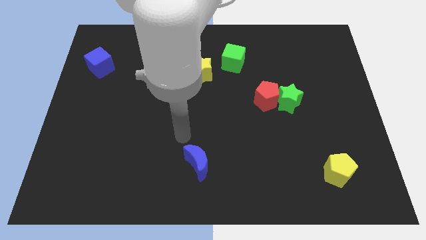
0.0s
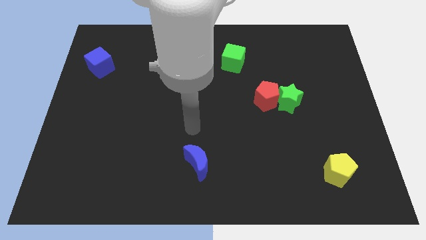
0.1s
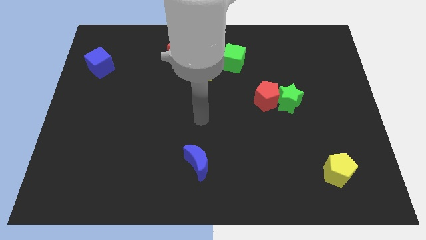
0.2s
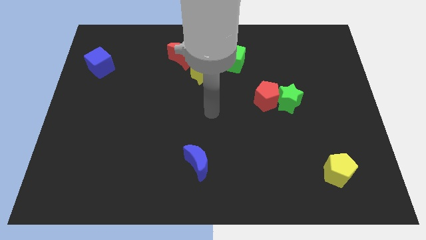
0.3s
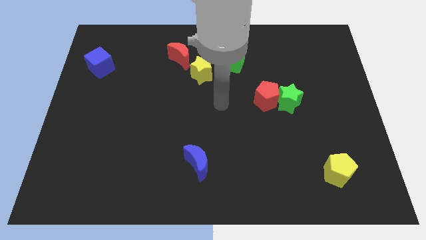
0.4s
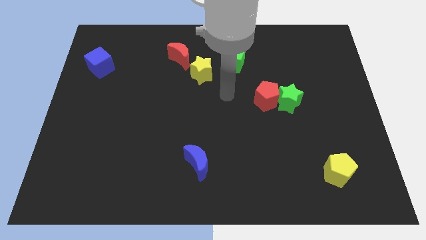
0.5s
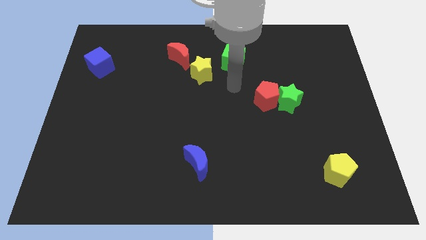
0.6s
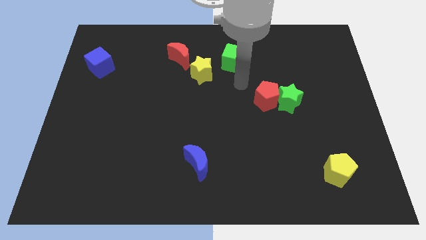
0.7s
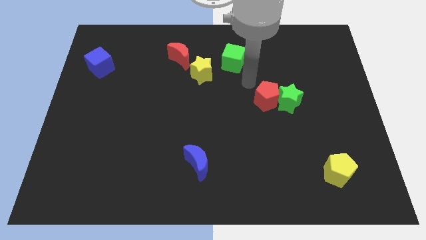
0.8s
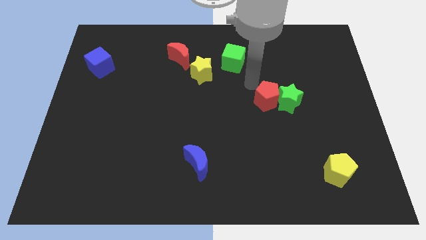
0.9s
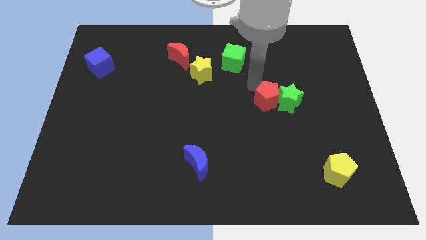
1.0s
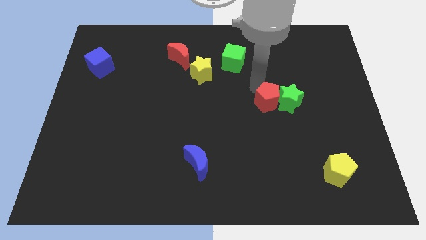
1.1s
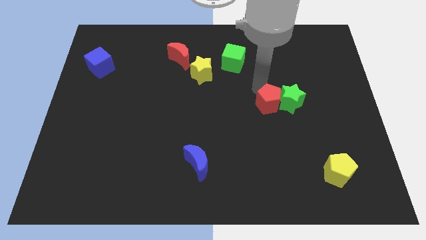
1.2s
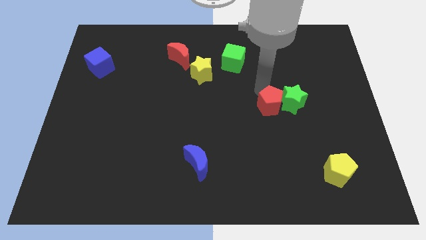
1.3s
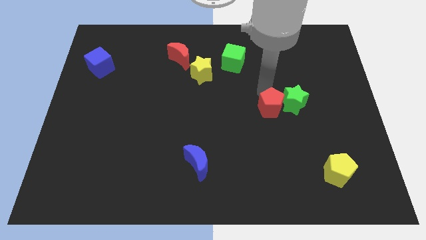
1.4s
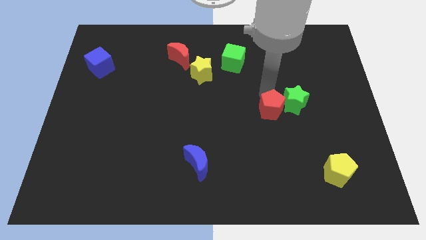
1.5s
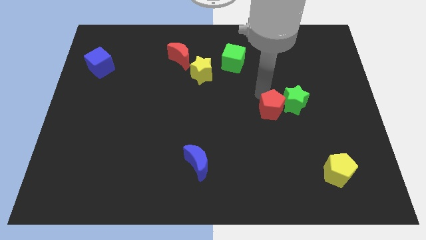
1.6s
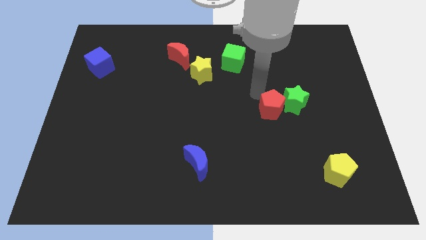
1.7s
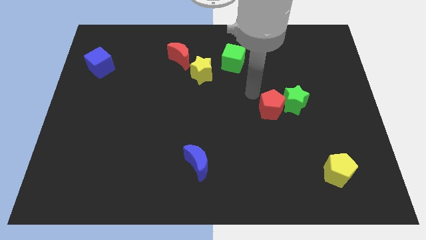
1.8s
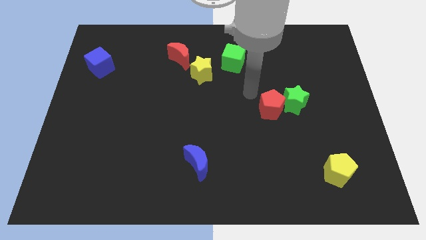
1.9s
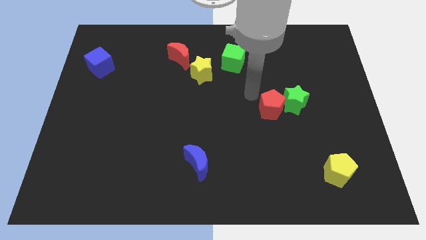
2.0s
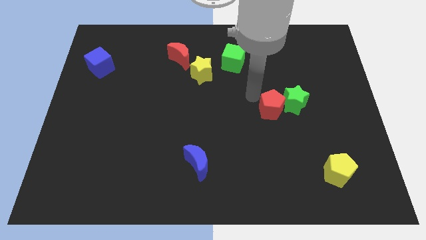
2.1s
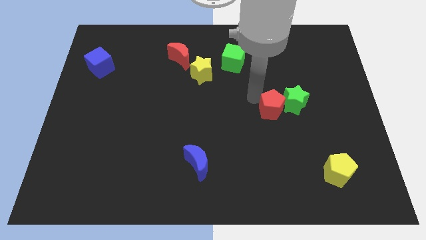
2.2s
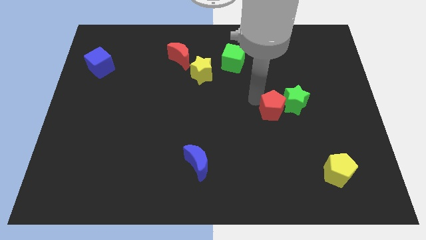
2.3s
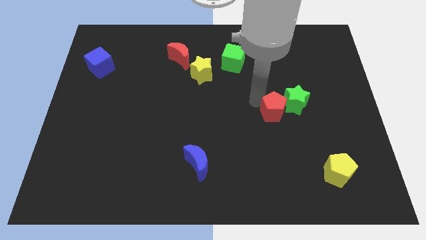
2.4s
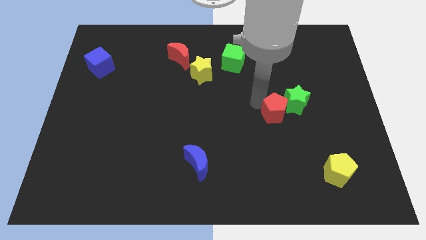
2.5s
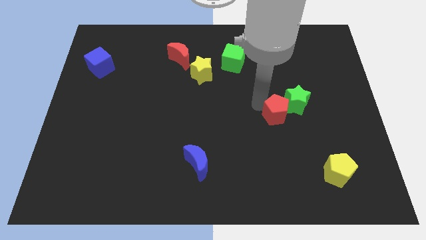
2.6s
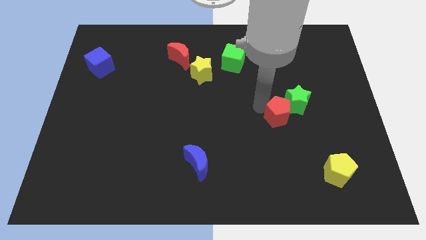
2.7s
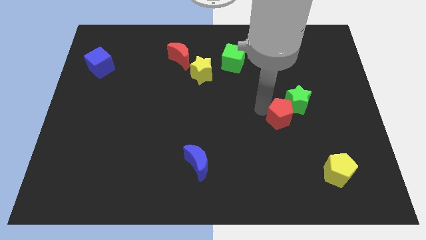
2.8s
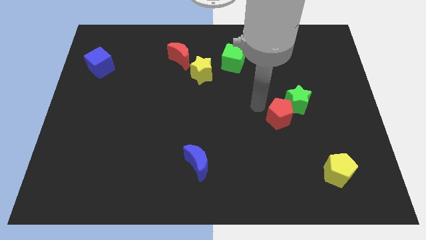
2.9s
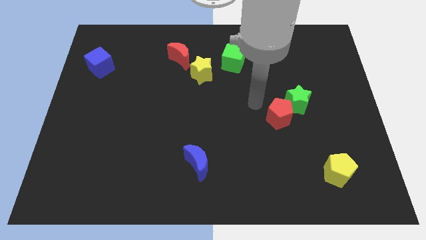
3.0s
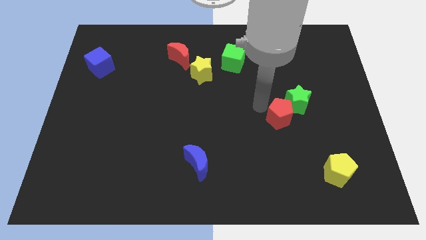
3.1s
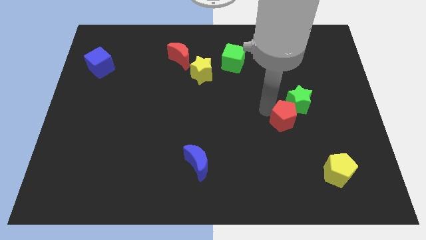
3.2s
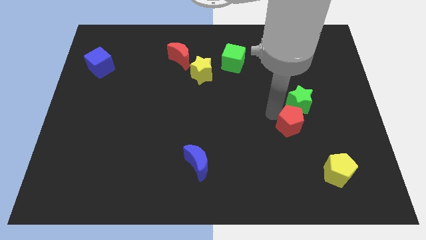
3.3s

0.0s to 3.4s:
slide the red pentagon somewhat downwards and to the right diagonally

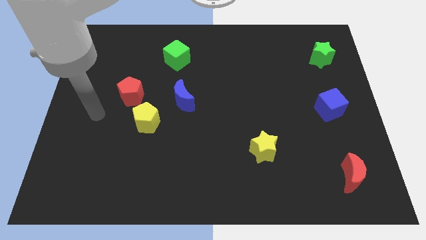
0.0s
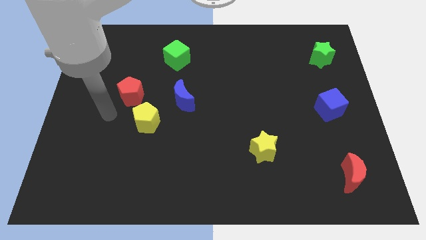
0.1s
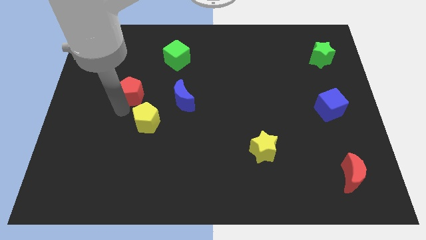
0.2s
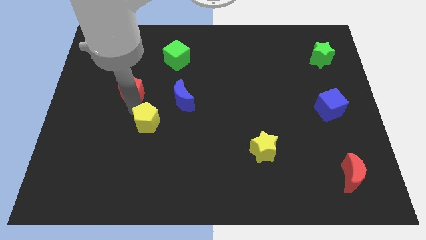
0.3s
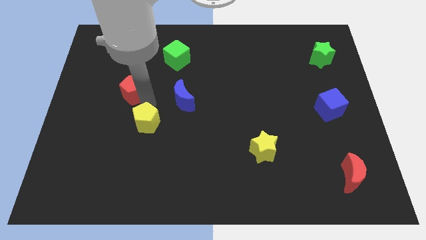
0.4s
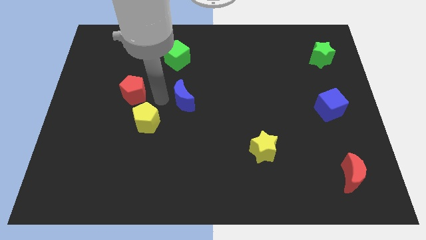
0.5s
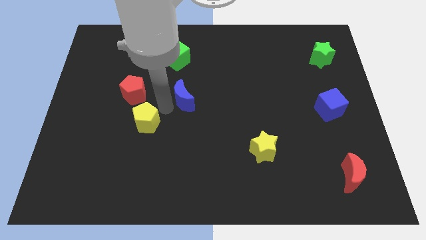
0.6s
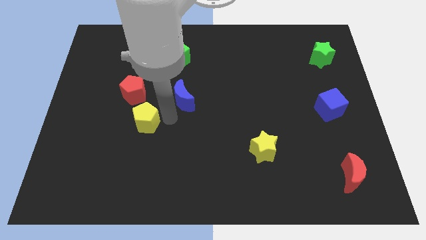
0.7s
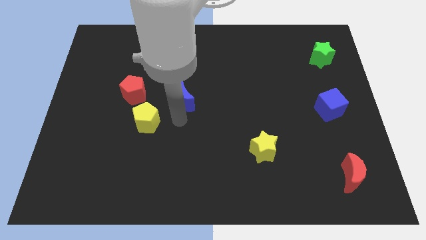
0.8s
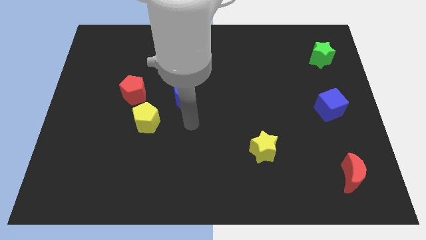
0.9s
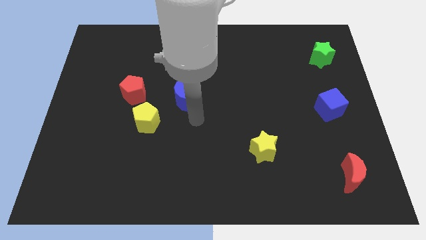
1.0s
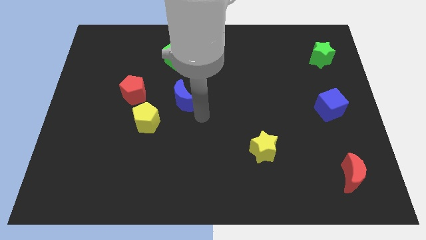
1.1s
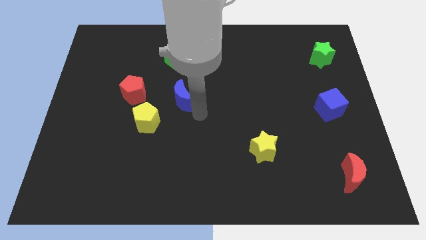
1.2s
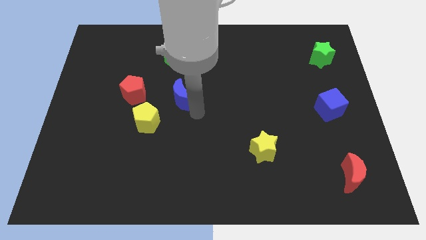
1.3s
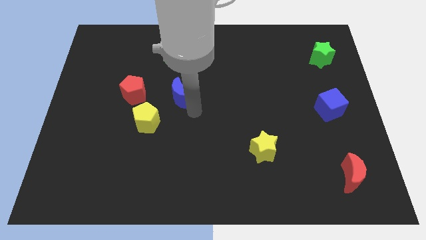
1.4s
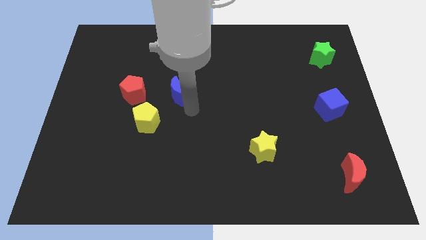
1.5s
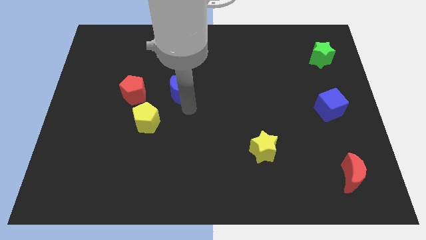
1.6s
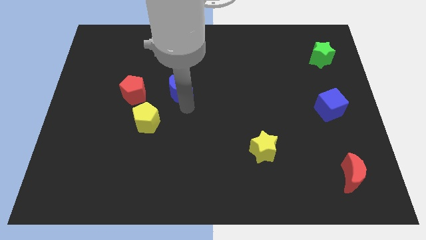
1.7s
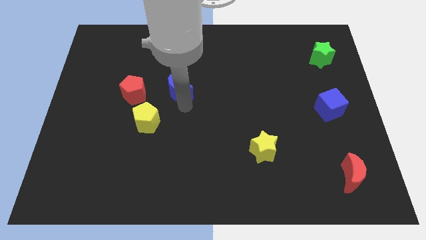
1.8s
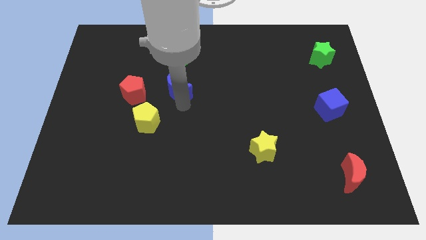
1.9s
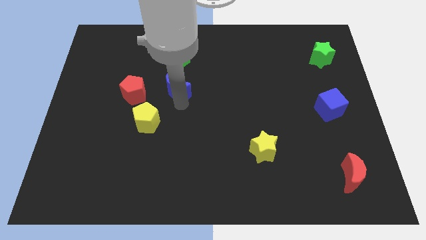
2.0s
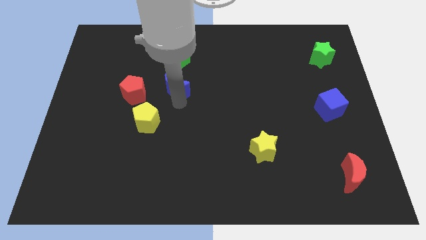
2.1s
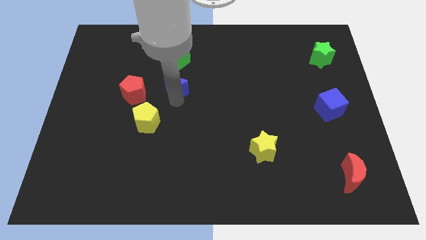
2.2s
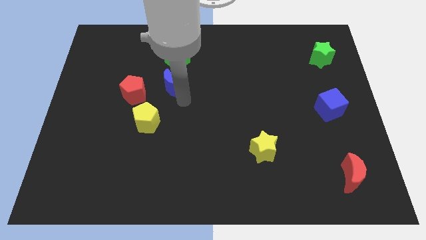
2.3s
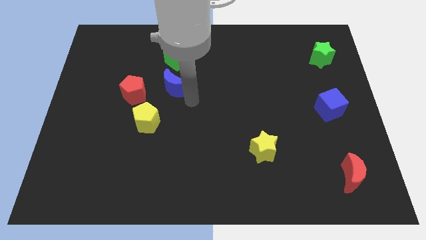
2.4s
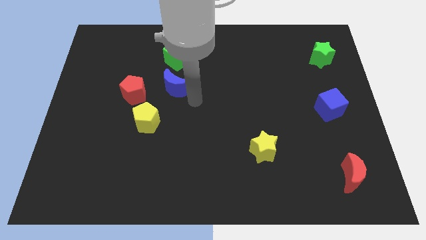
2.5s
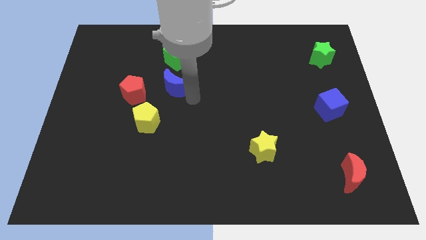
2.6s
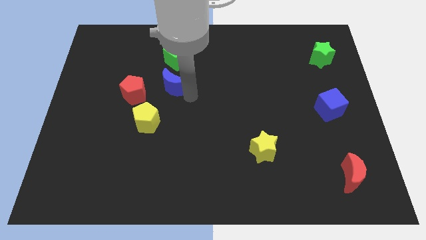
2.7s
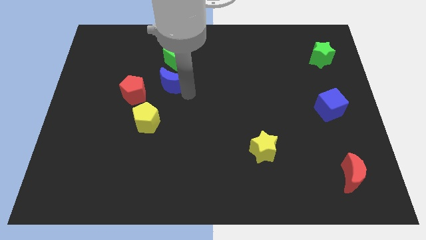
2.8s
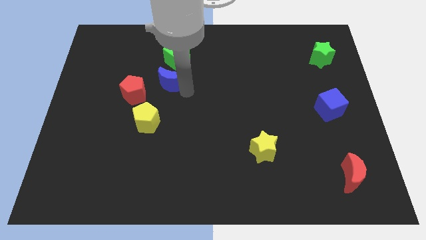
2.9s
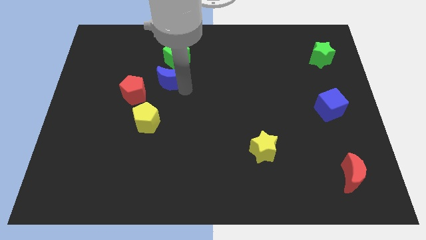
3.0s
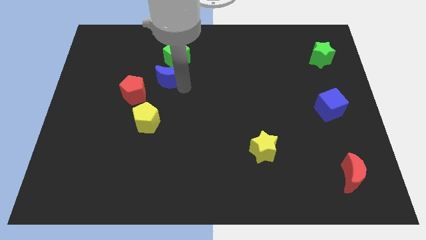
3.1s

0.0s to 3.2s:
move the blue moon slightly upwards and left

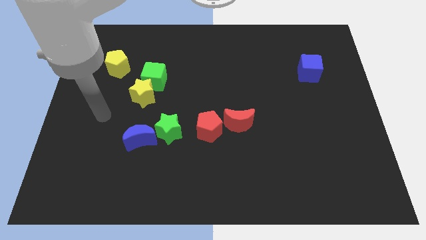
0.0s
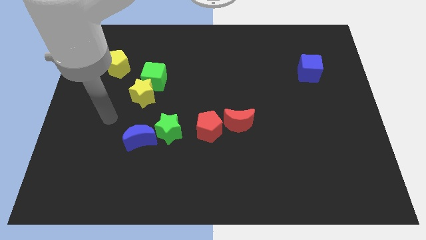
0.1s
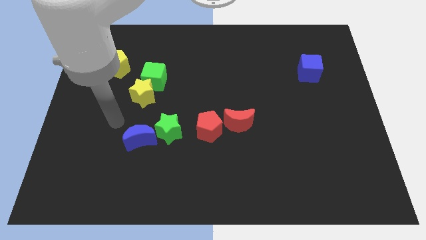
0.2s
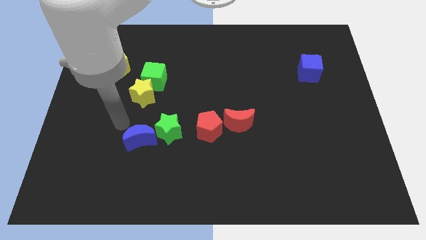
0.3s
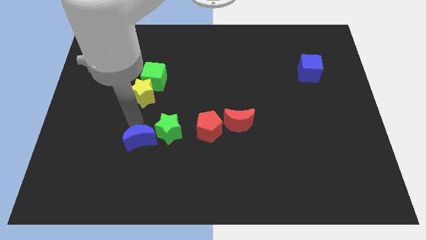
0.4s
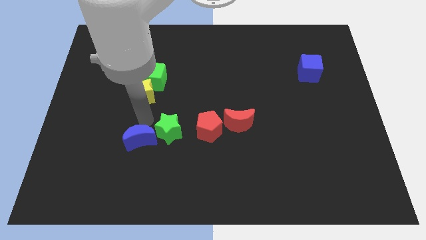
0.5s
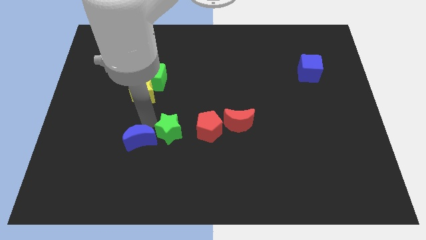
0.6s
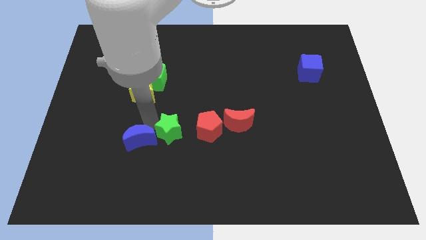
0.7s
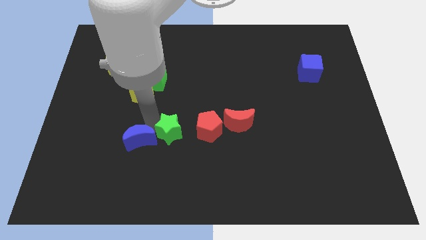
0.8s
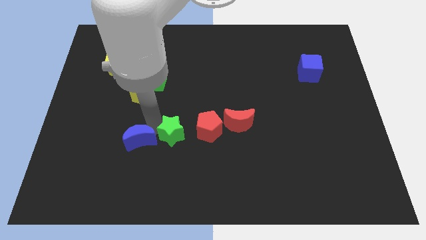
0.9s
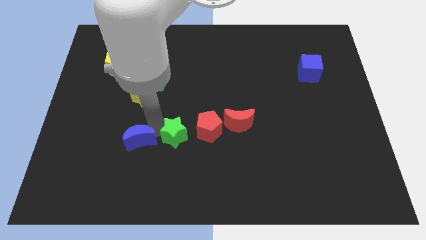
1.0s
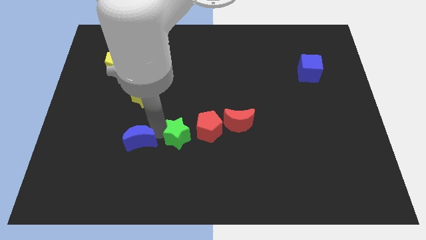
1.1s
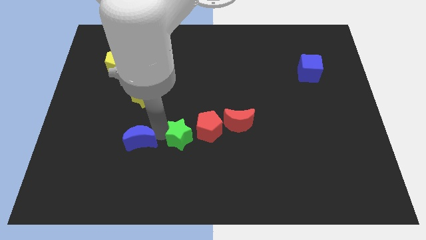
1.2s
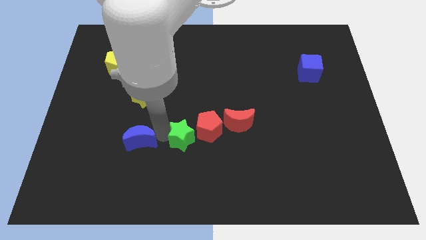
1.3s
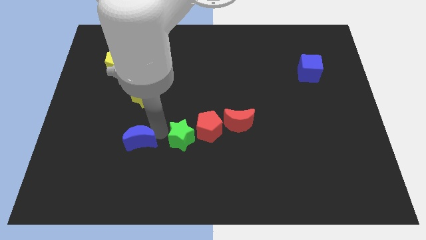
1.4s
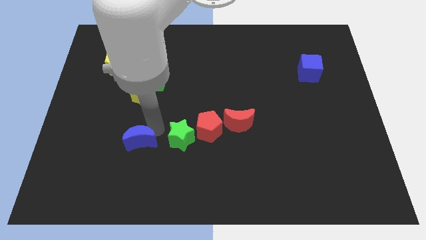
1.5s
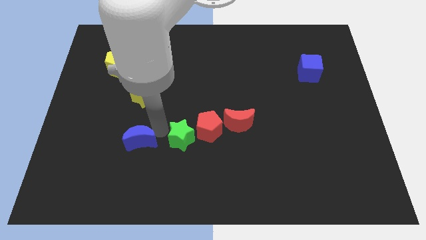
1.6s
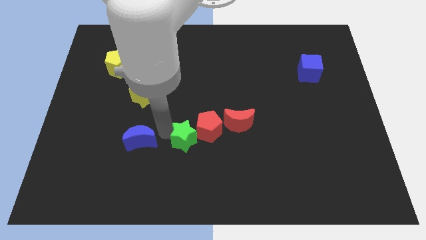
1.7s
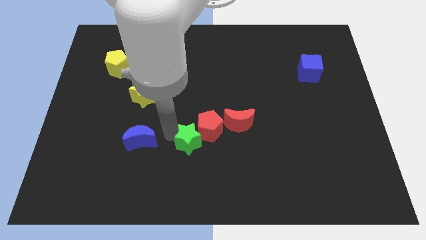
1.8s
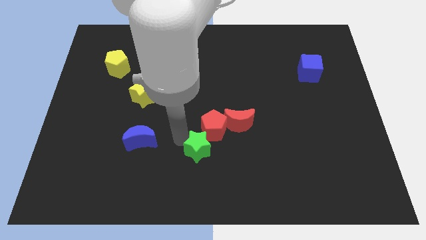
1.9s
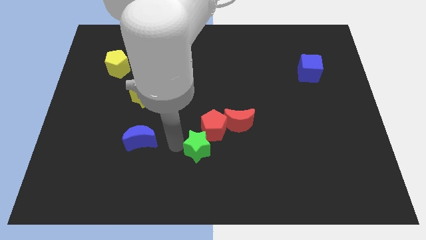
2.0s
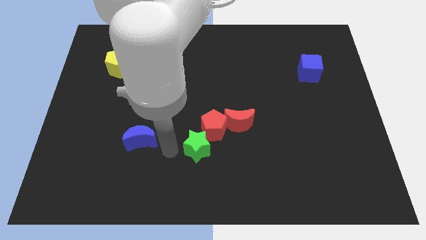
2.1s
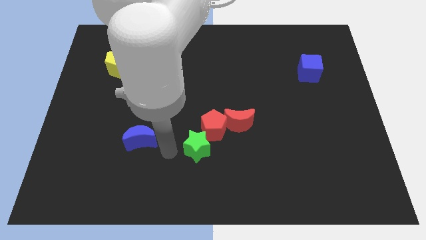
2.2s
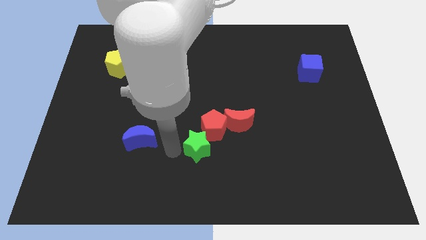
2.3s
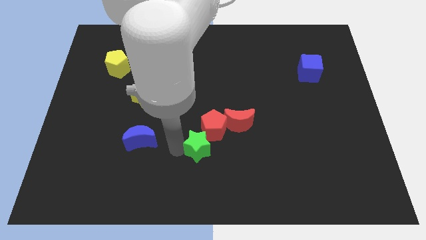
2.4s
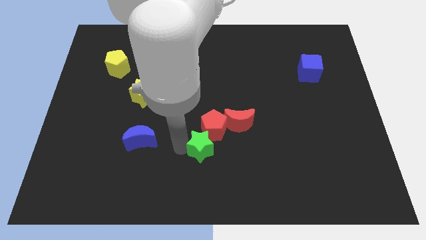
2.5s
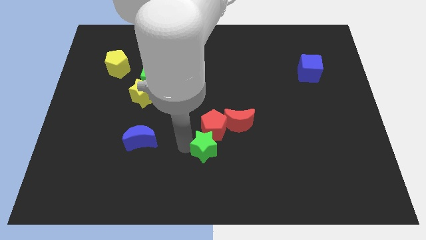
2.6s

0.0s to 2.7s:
slightly move the green star right
